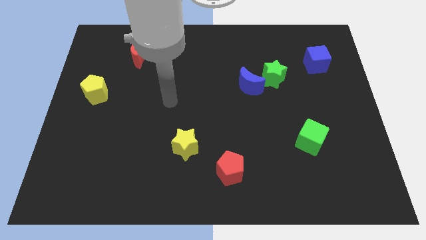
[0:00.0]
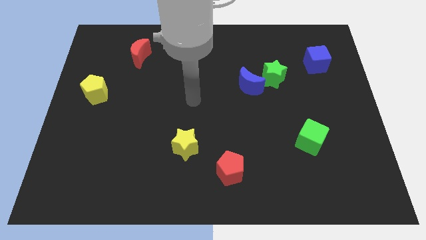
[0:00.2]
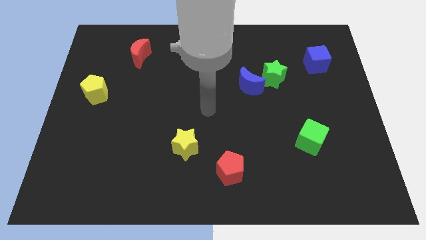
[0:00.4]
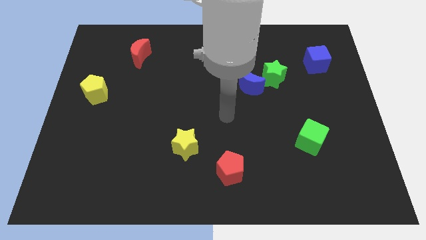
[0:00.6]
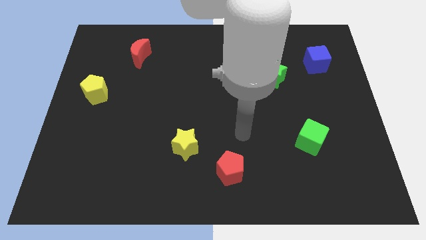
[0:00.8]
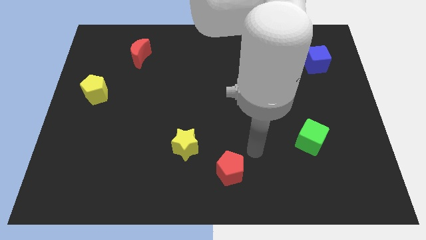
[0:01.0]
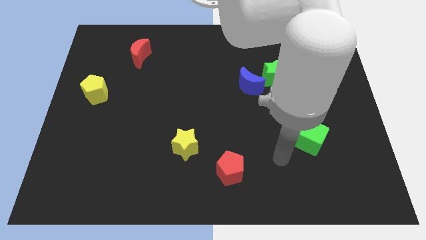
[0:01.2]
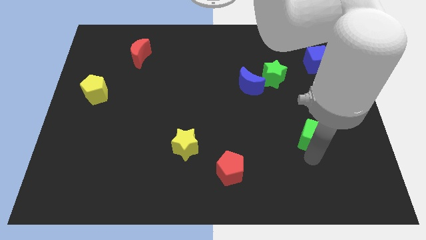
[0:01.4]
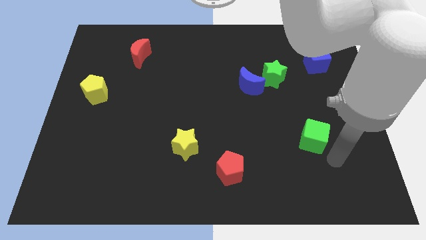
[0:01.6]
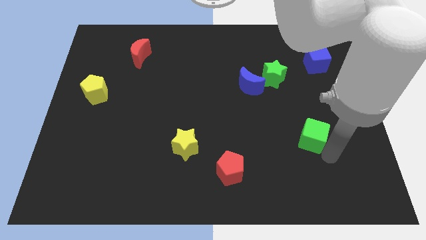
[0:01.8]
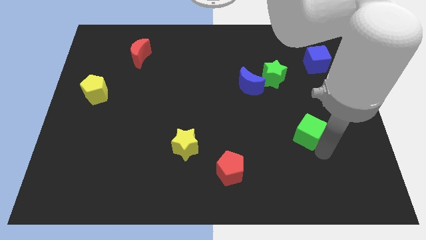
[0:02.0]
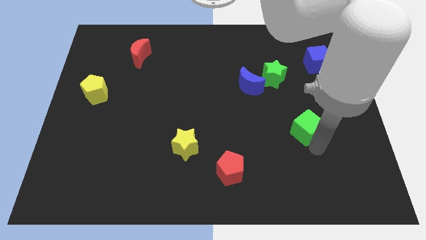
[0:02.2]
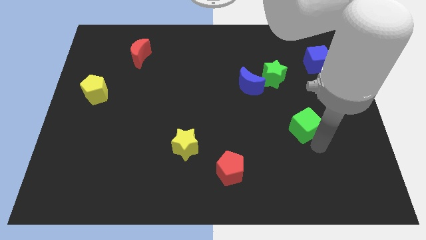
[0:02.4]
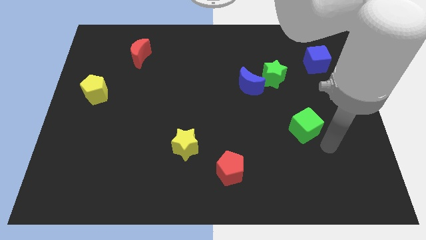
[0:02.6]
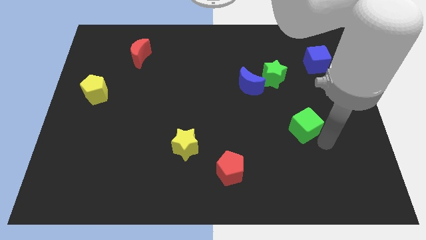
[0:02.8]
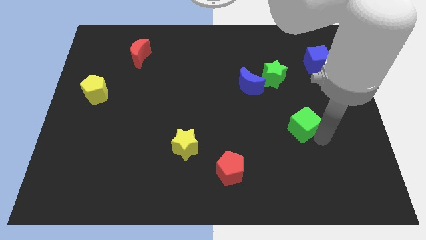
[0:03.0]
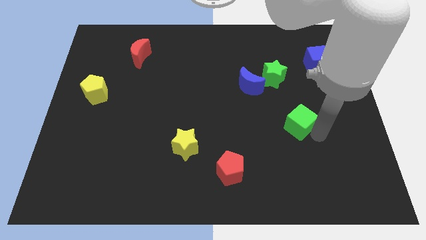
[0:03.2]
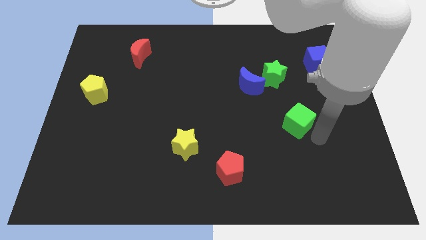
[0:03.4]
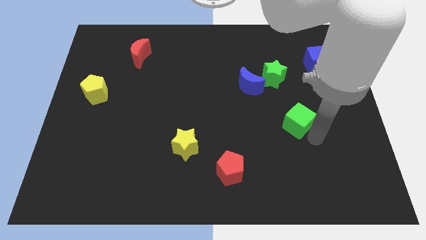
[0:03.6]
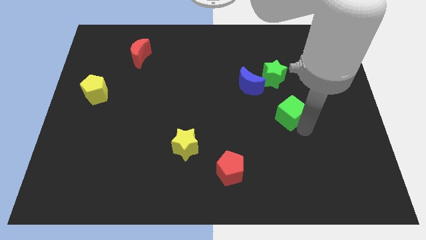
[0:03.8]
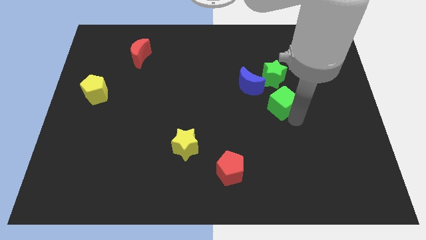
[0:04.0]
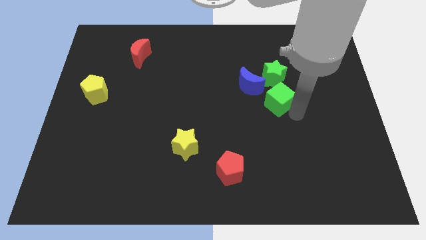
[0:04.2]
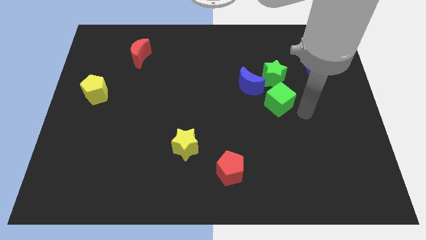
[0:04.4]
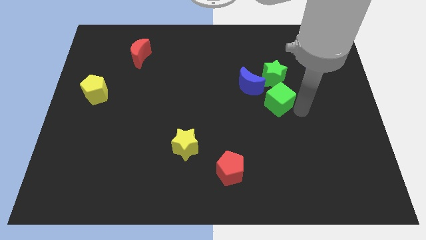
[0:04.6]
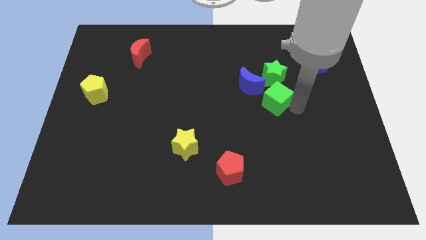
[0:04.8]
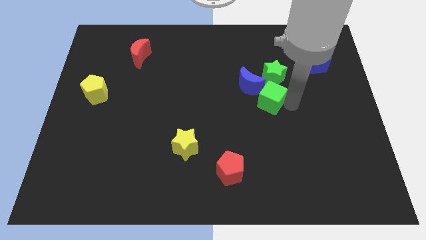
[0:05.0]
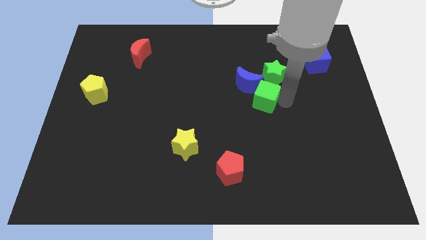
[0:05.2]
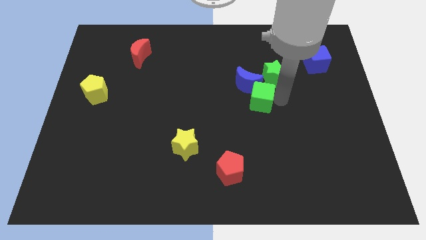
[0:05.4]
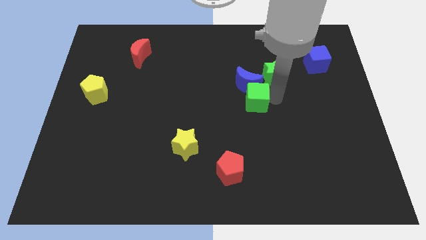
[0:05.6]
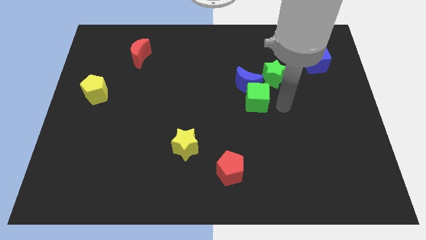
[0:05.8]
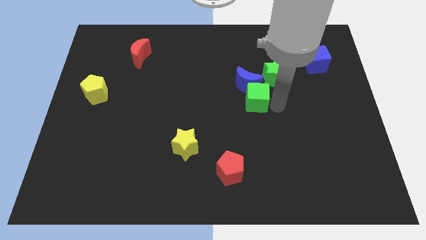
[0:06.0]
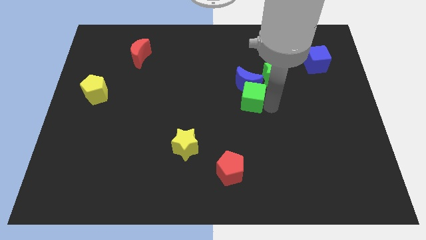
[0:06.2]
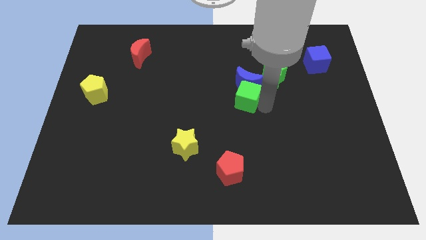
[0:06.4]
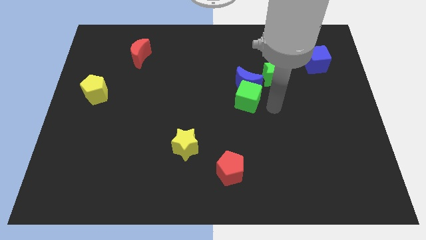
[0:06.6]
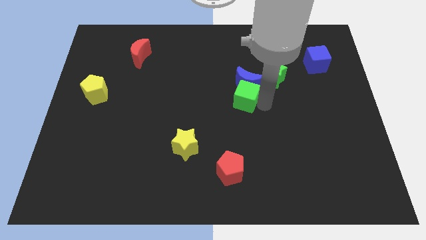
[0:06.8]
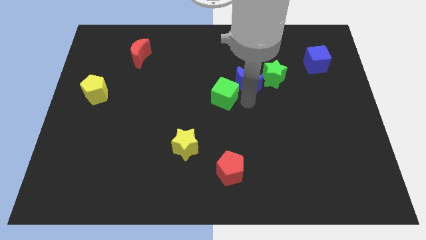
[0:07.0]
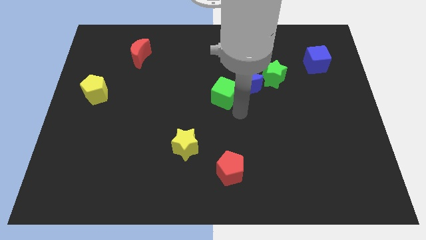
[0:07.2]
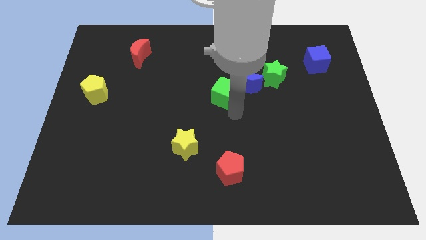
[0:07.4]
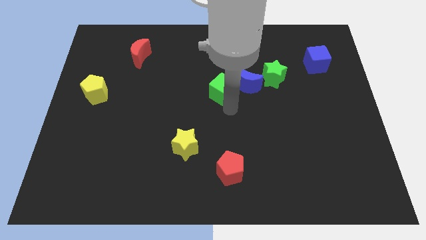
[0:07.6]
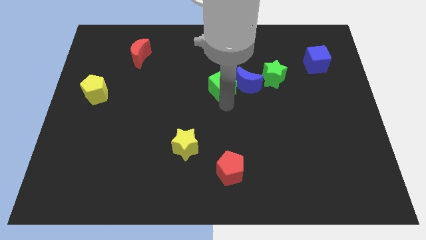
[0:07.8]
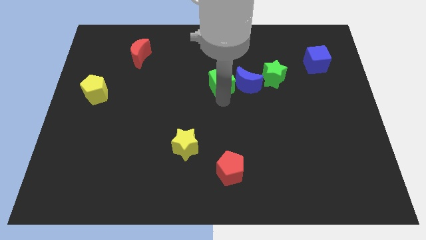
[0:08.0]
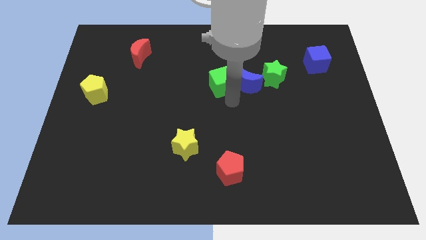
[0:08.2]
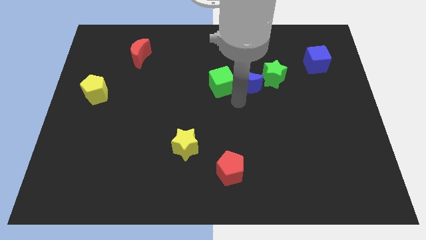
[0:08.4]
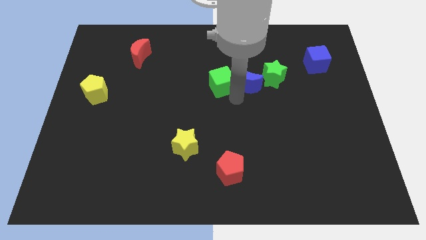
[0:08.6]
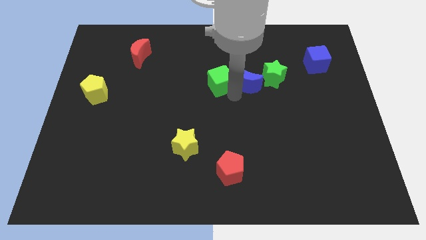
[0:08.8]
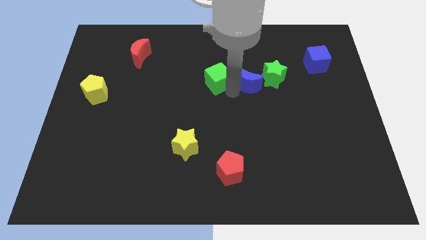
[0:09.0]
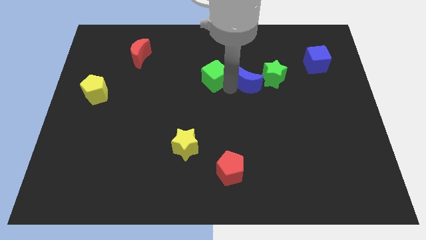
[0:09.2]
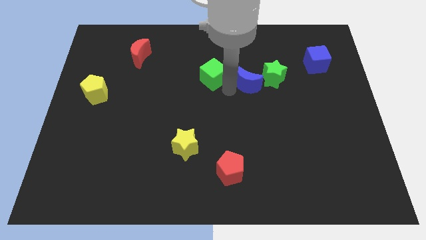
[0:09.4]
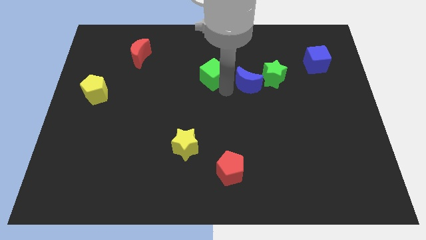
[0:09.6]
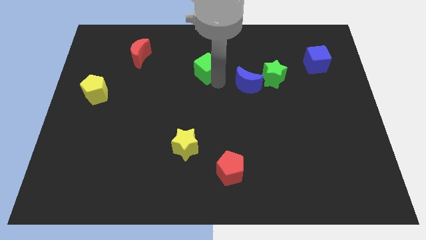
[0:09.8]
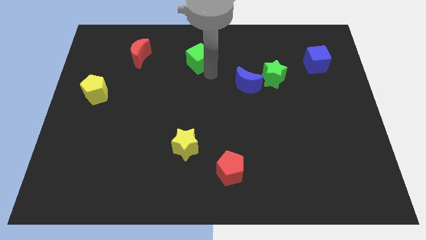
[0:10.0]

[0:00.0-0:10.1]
move the green cube to the right side of the red moon

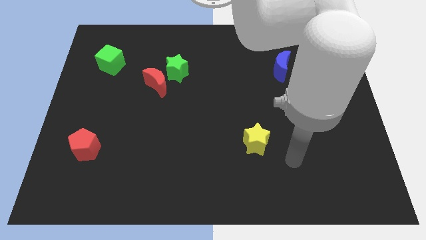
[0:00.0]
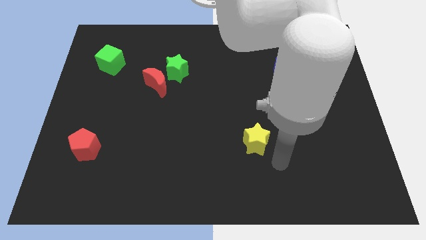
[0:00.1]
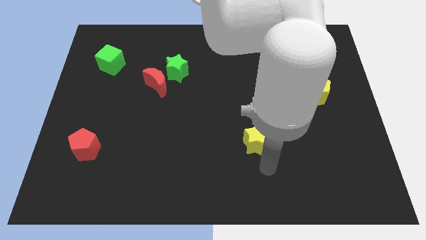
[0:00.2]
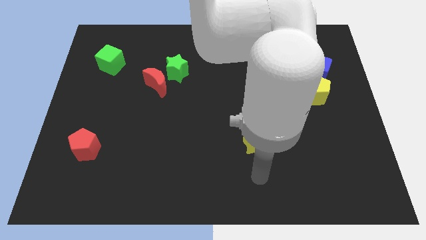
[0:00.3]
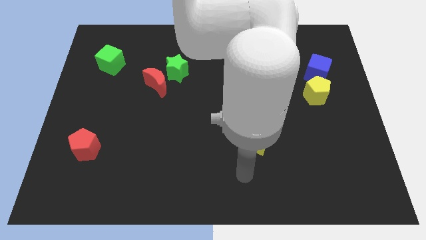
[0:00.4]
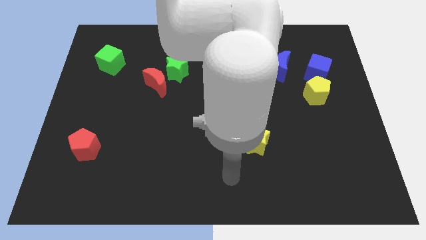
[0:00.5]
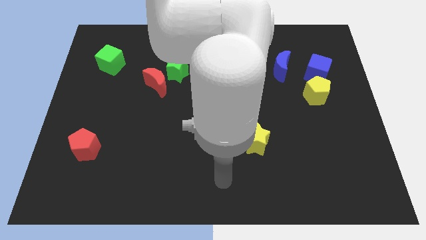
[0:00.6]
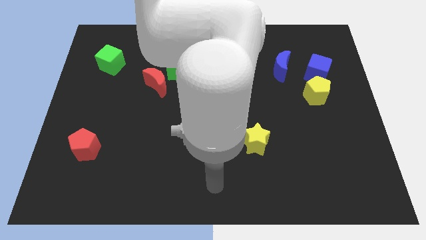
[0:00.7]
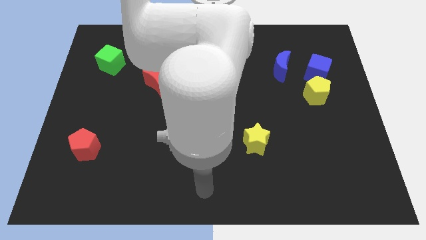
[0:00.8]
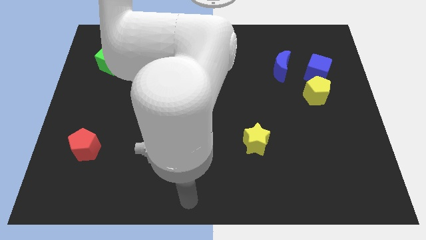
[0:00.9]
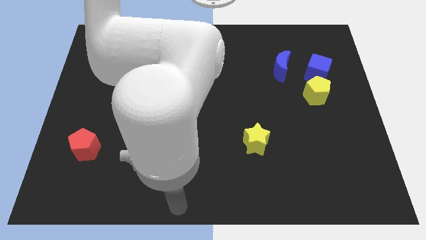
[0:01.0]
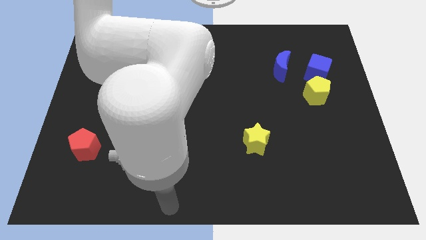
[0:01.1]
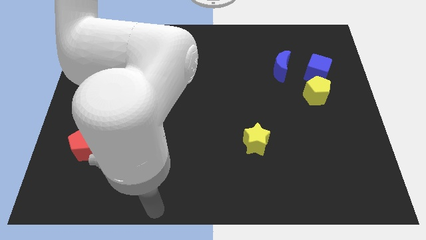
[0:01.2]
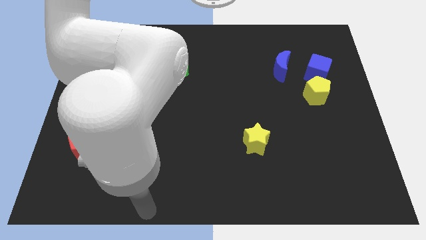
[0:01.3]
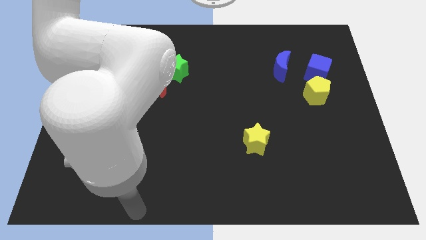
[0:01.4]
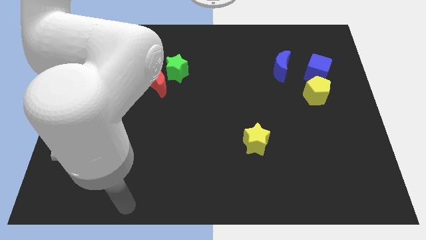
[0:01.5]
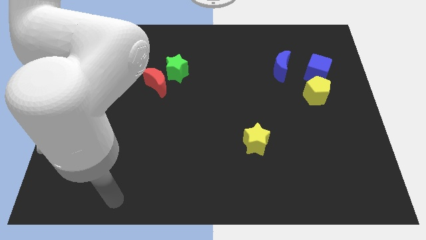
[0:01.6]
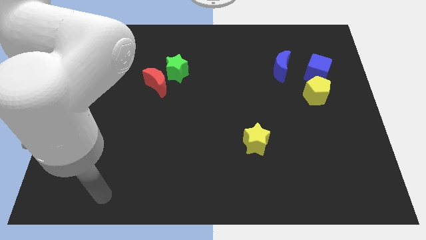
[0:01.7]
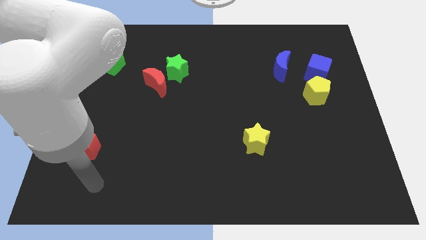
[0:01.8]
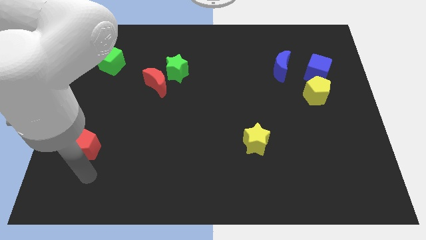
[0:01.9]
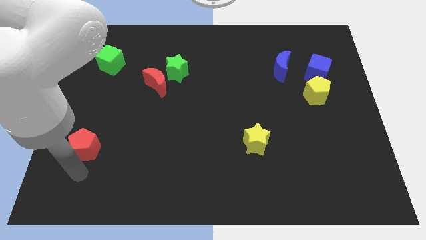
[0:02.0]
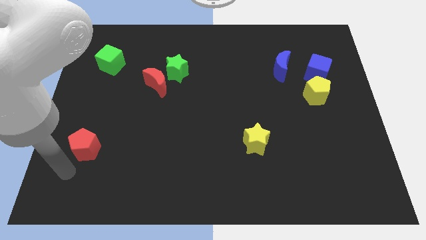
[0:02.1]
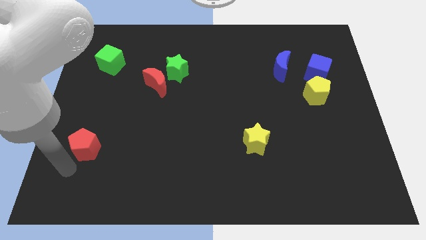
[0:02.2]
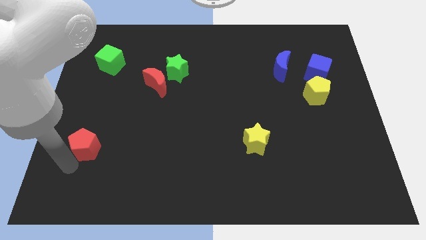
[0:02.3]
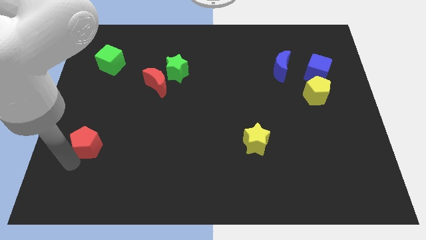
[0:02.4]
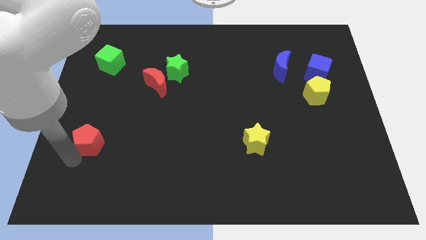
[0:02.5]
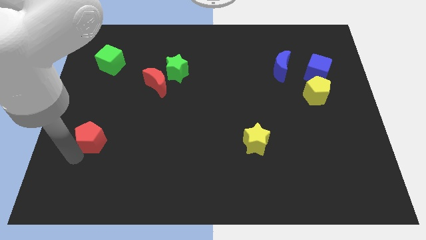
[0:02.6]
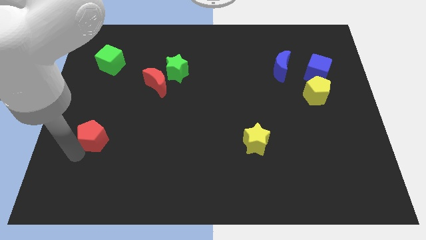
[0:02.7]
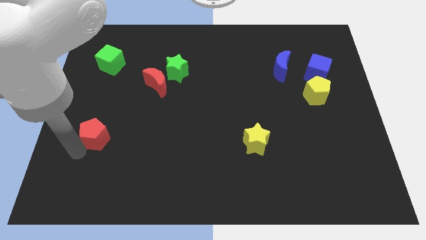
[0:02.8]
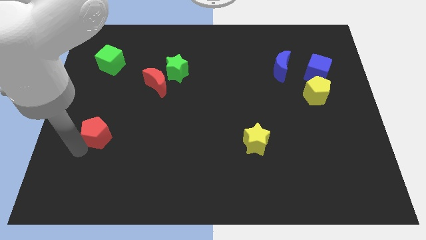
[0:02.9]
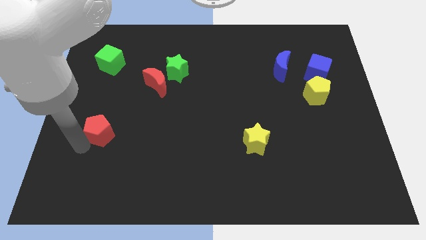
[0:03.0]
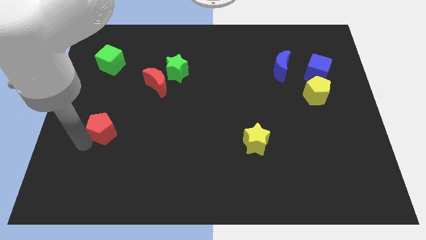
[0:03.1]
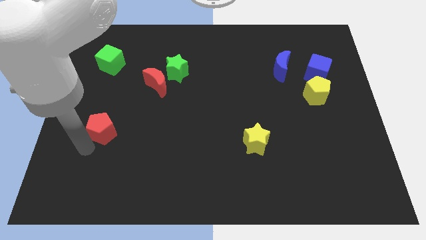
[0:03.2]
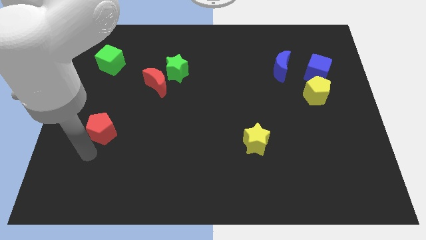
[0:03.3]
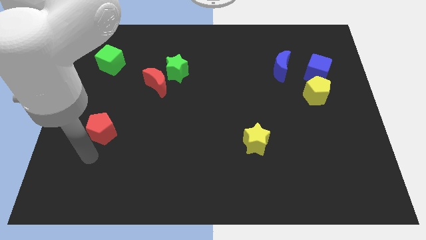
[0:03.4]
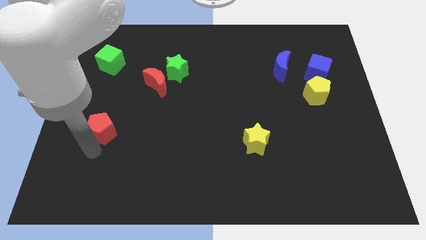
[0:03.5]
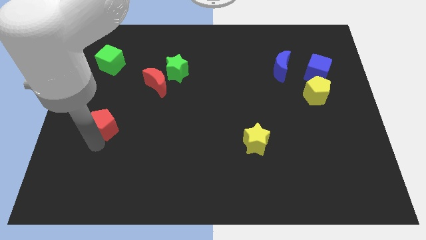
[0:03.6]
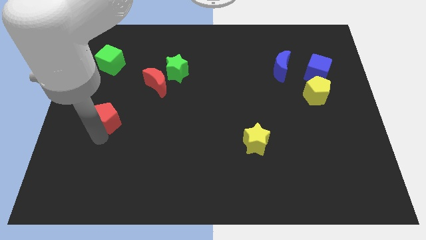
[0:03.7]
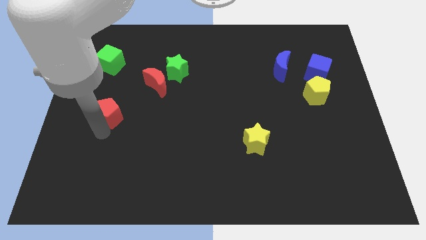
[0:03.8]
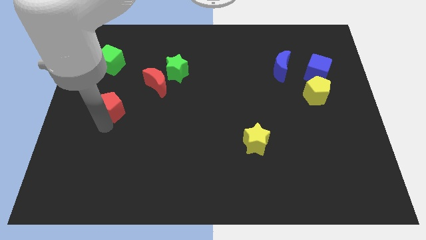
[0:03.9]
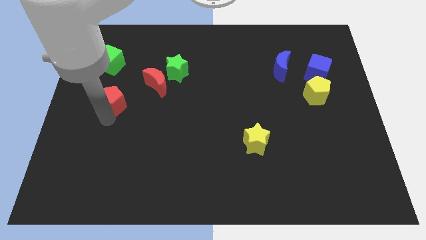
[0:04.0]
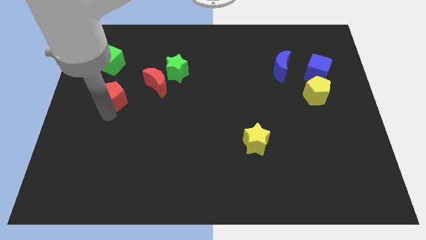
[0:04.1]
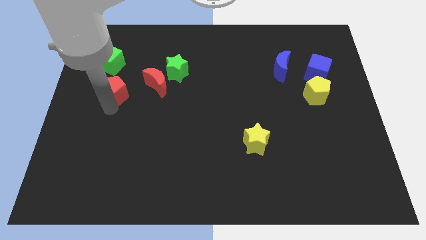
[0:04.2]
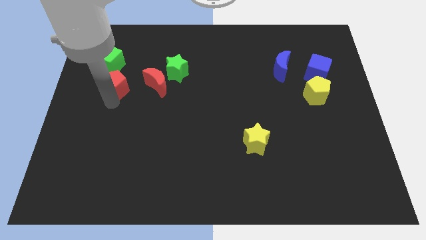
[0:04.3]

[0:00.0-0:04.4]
slide the red pentagon to the bottom right of the green cube
